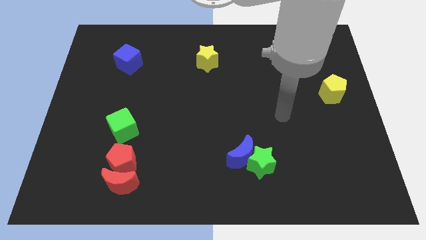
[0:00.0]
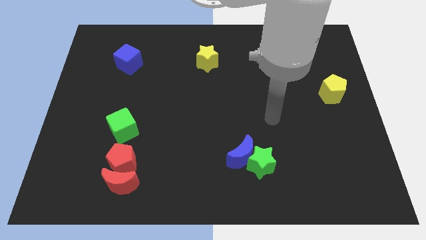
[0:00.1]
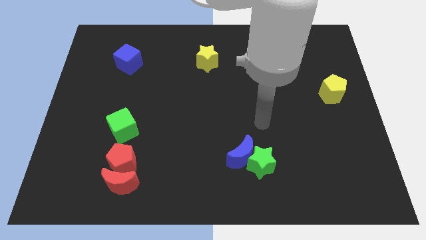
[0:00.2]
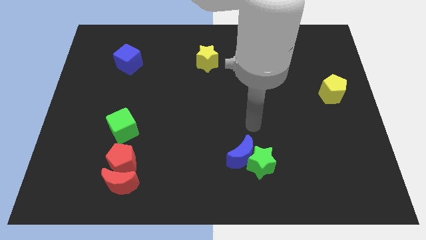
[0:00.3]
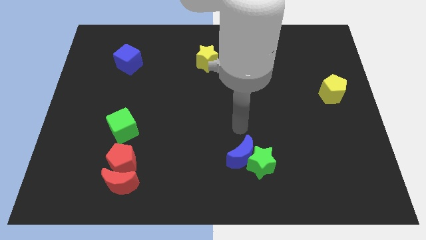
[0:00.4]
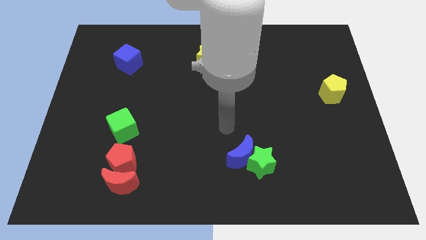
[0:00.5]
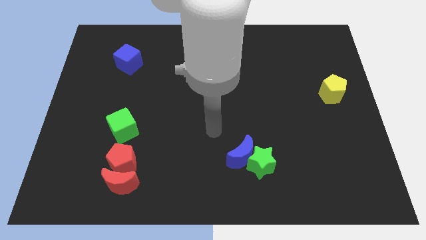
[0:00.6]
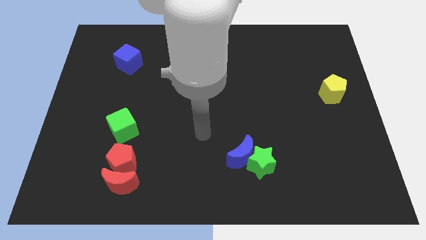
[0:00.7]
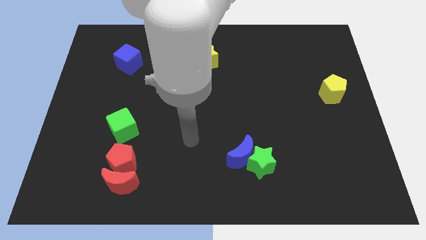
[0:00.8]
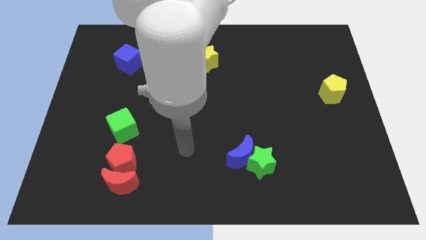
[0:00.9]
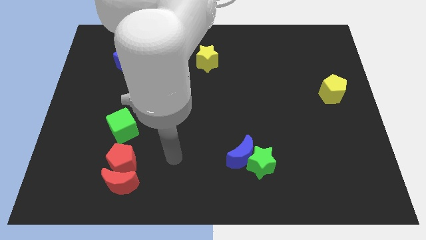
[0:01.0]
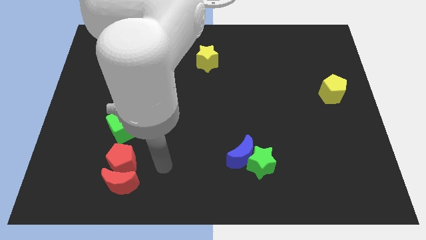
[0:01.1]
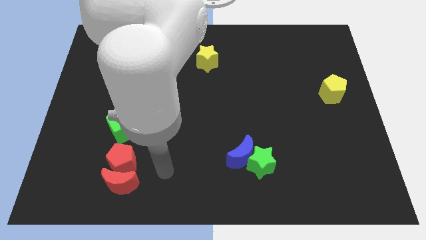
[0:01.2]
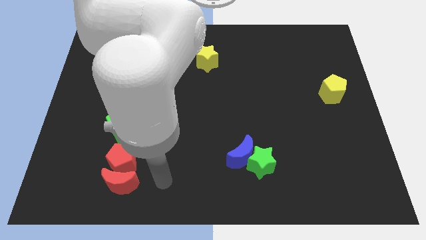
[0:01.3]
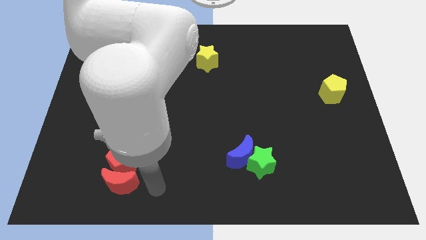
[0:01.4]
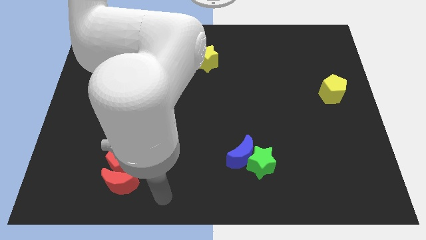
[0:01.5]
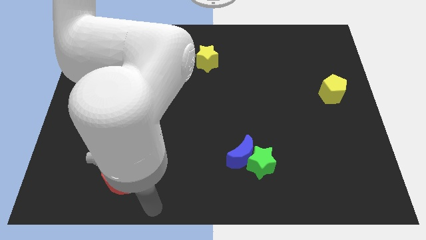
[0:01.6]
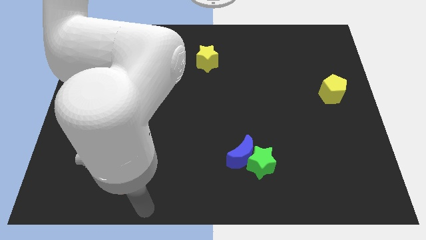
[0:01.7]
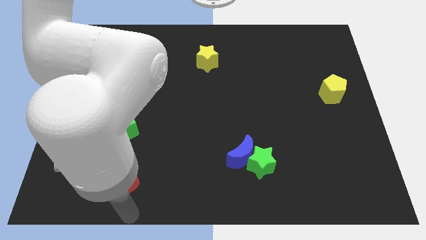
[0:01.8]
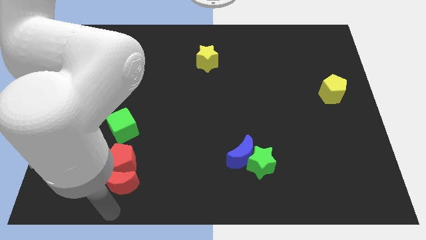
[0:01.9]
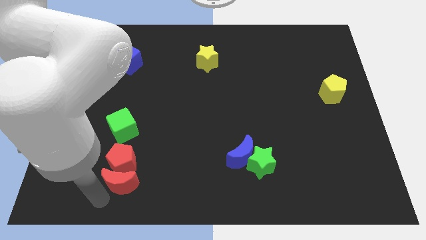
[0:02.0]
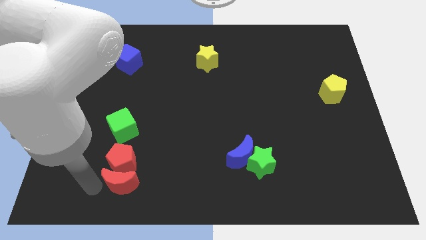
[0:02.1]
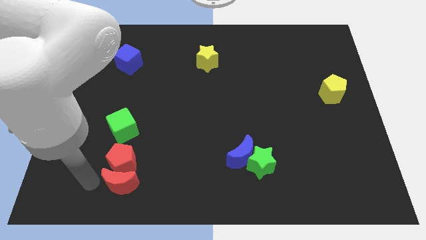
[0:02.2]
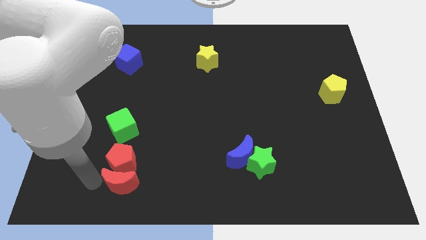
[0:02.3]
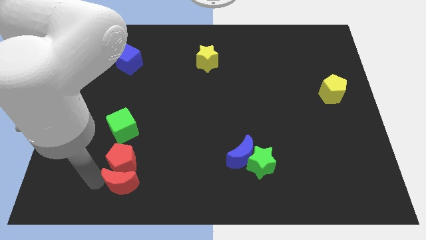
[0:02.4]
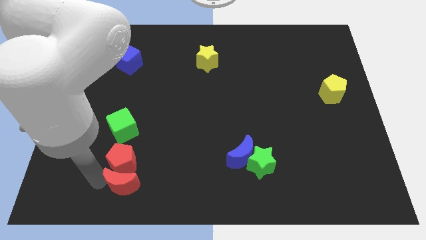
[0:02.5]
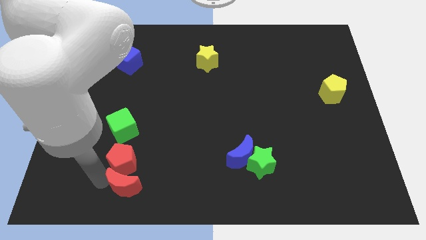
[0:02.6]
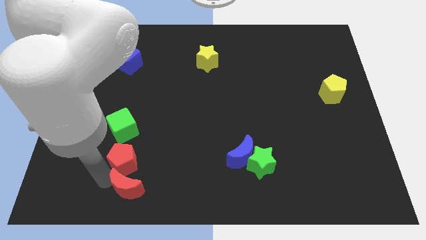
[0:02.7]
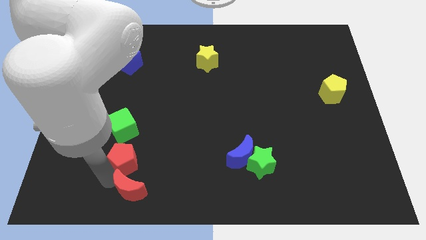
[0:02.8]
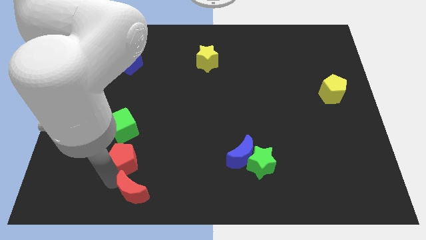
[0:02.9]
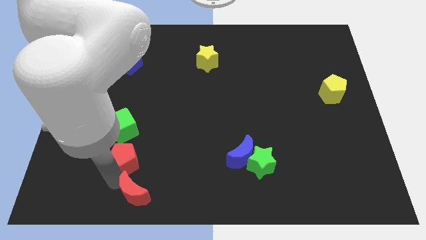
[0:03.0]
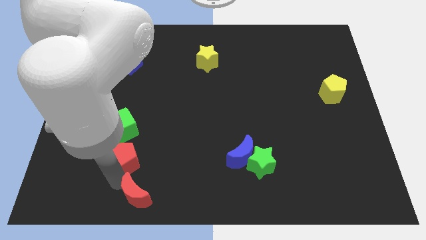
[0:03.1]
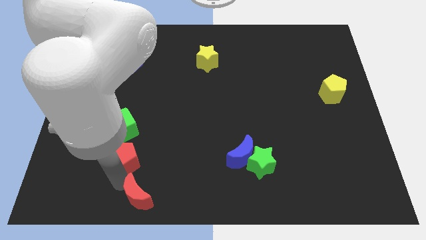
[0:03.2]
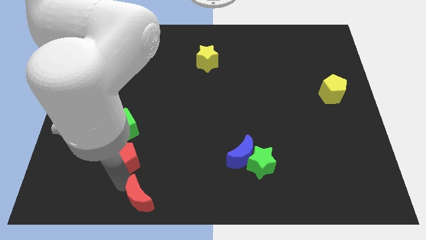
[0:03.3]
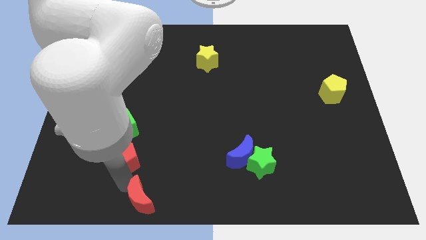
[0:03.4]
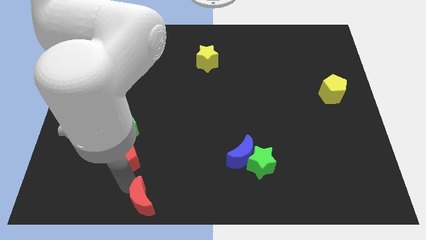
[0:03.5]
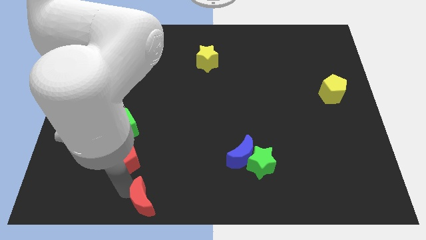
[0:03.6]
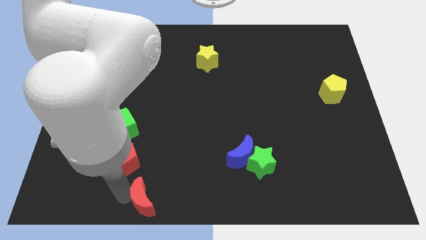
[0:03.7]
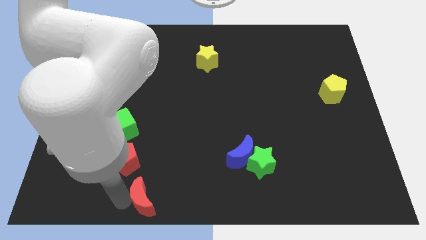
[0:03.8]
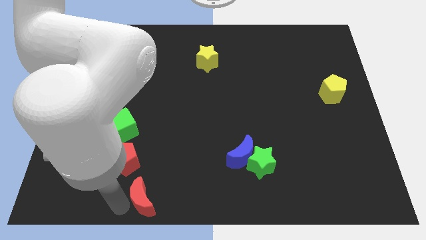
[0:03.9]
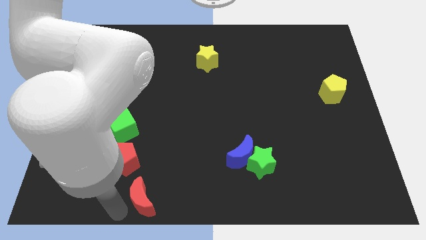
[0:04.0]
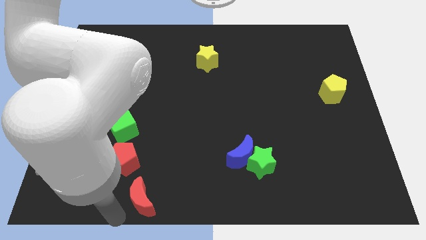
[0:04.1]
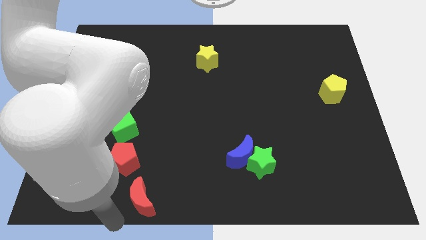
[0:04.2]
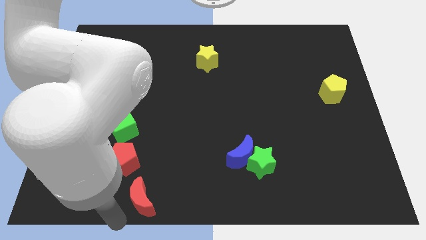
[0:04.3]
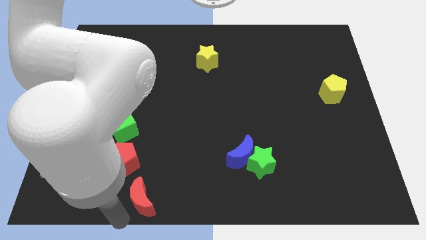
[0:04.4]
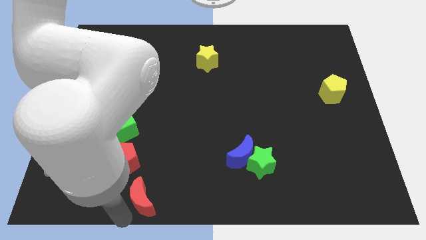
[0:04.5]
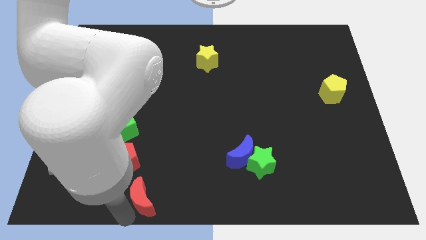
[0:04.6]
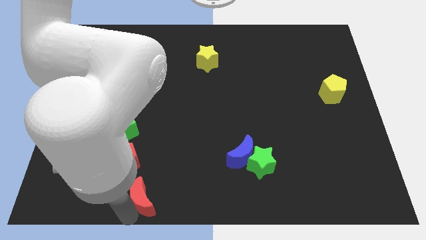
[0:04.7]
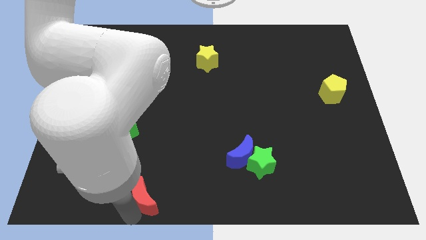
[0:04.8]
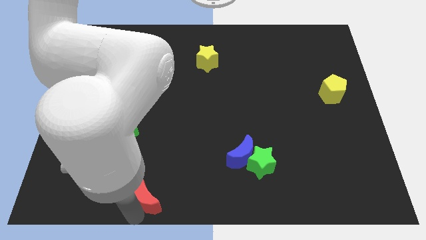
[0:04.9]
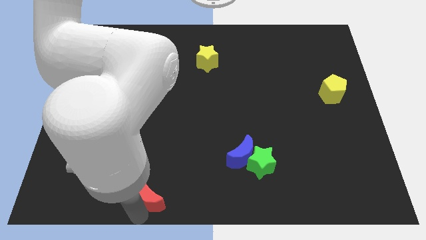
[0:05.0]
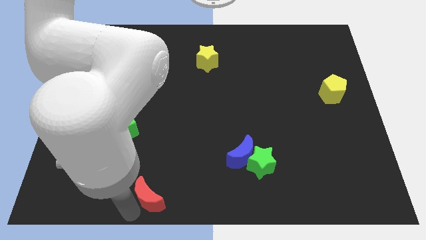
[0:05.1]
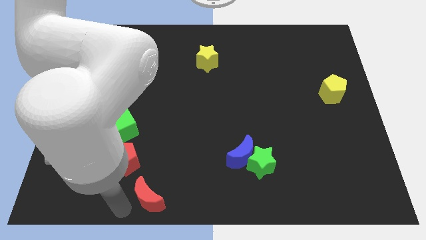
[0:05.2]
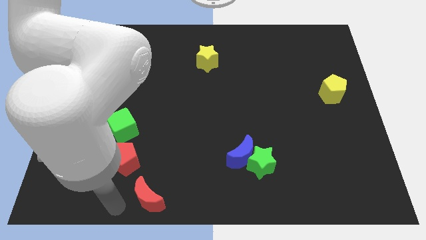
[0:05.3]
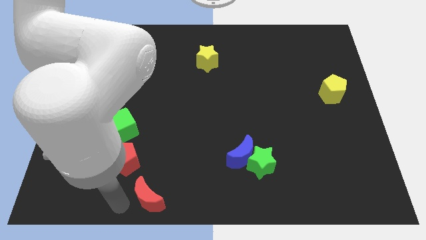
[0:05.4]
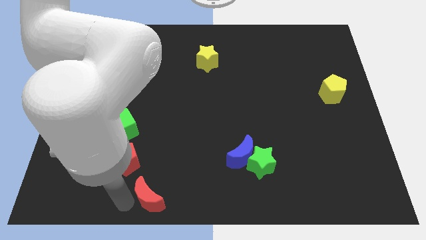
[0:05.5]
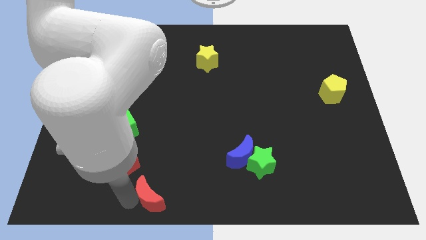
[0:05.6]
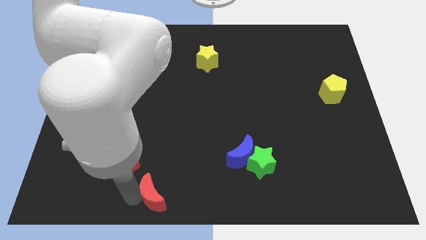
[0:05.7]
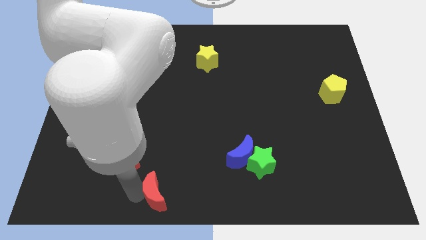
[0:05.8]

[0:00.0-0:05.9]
slide the red moon somewhat right

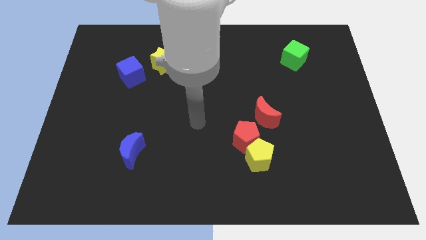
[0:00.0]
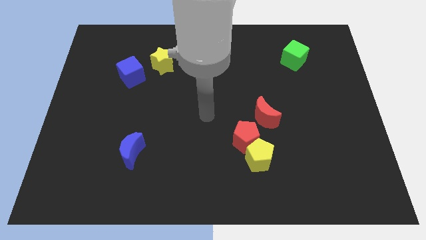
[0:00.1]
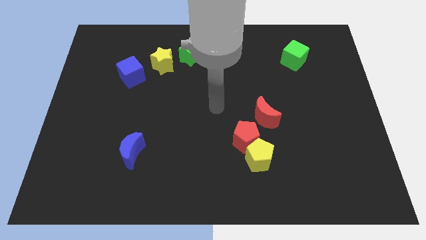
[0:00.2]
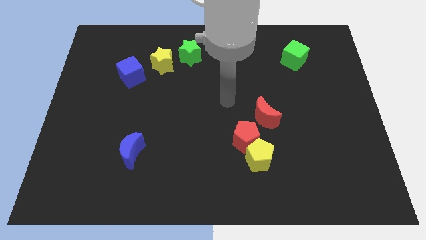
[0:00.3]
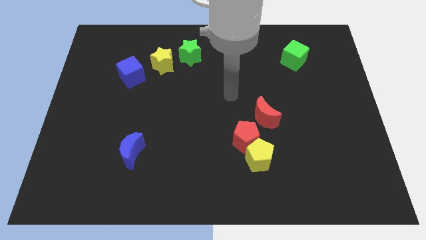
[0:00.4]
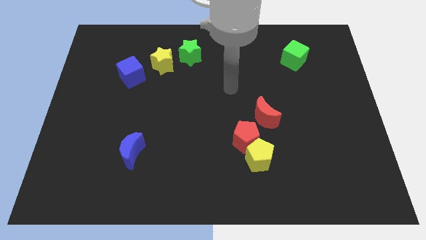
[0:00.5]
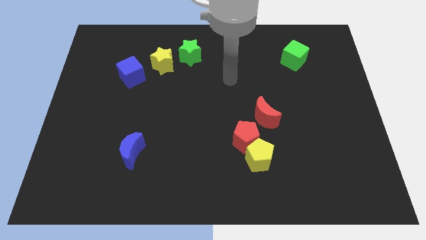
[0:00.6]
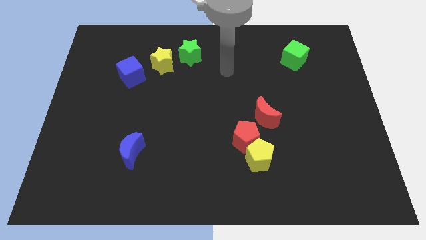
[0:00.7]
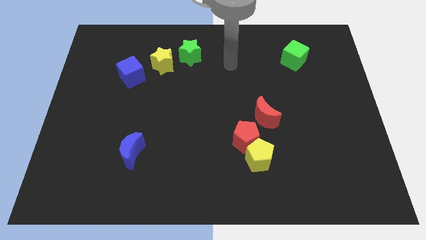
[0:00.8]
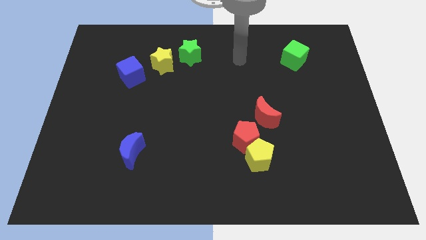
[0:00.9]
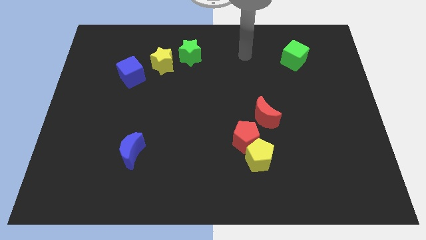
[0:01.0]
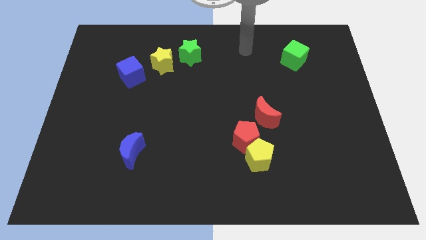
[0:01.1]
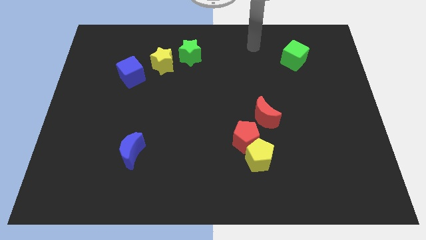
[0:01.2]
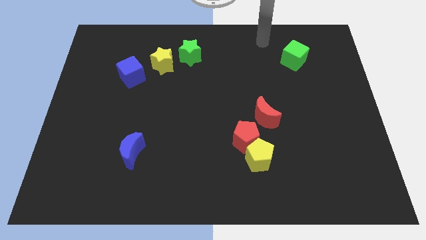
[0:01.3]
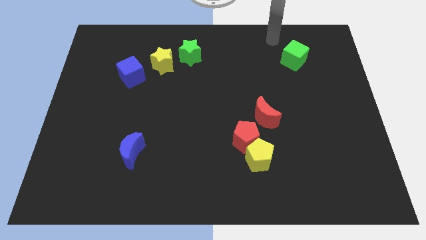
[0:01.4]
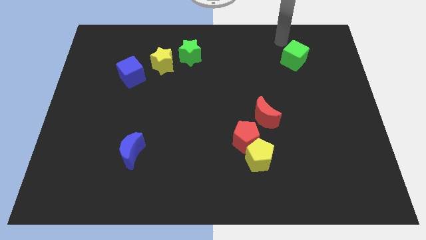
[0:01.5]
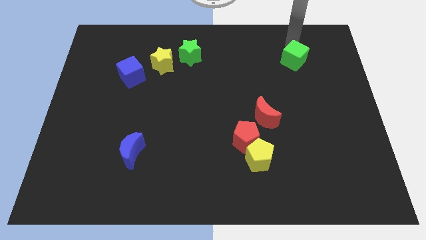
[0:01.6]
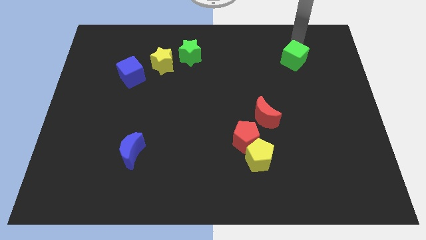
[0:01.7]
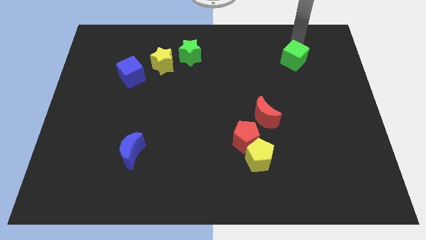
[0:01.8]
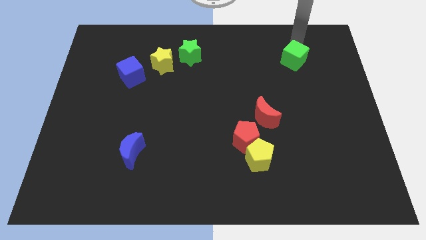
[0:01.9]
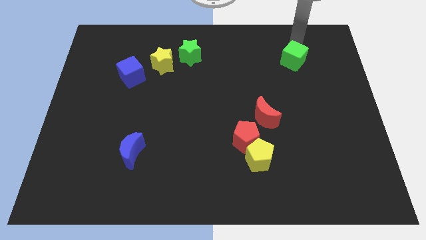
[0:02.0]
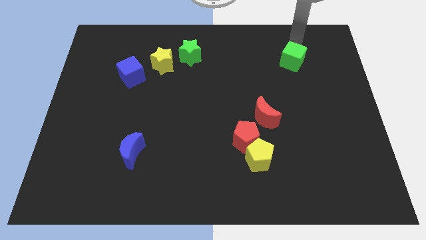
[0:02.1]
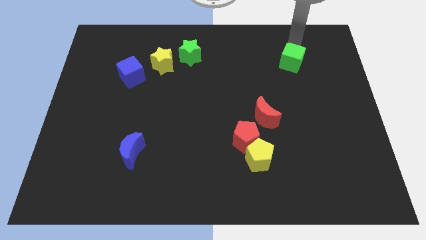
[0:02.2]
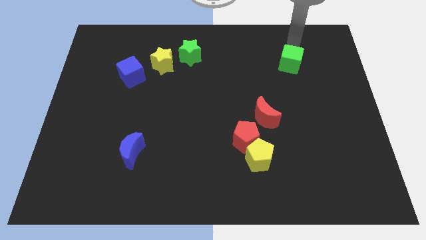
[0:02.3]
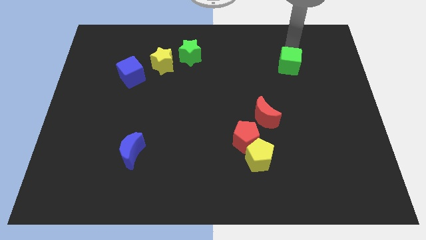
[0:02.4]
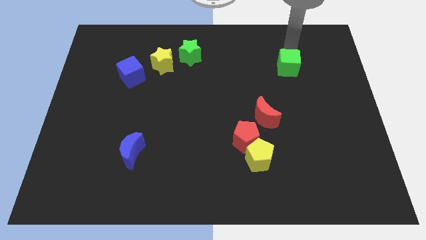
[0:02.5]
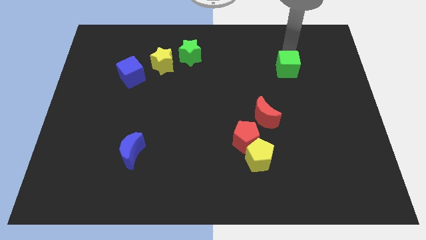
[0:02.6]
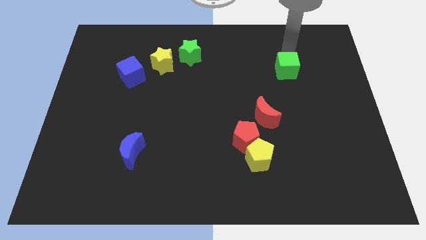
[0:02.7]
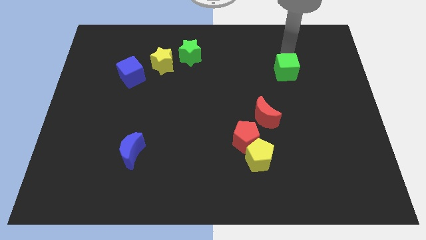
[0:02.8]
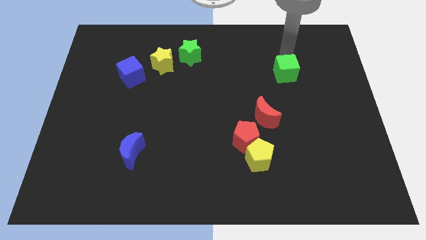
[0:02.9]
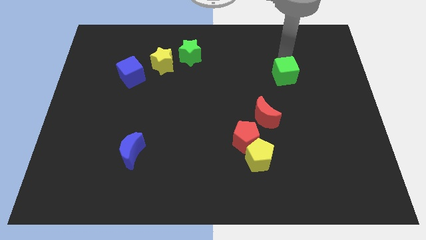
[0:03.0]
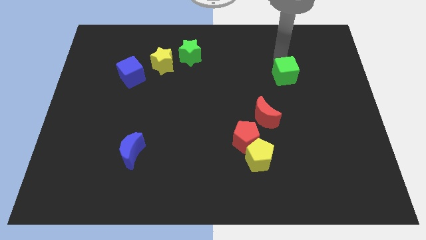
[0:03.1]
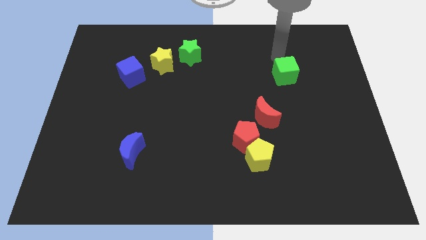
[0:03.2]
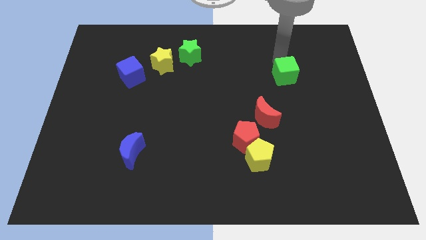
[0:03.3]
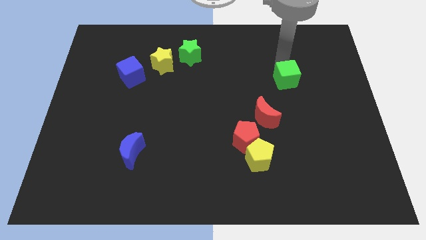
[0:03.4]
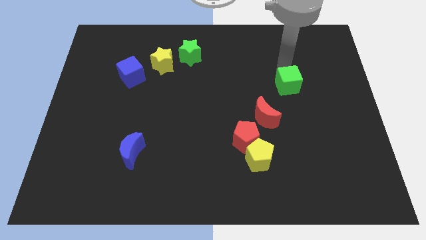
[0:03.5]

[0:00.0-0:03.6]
move the green cube a little bit down
